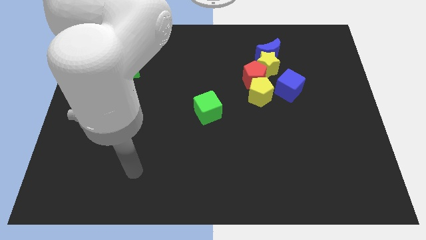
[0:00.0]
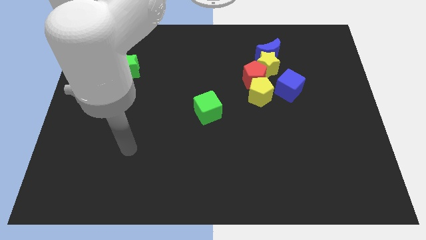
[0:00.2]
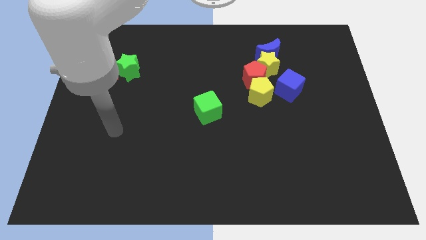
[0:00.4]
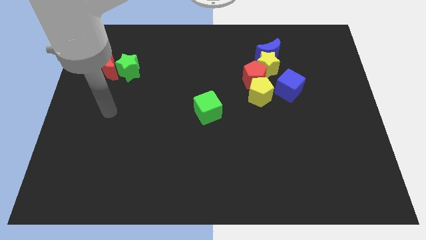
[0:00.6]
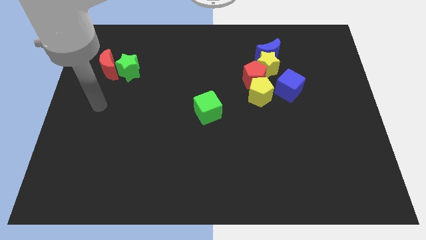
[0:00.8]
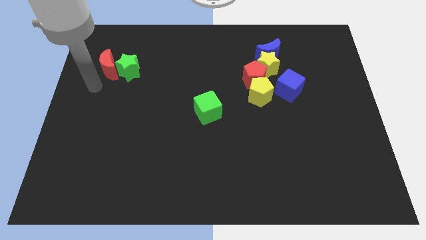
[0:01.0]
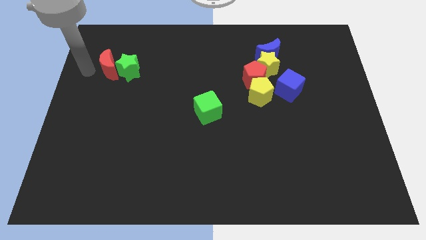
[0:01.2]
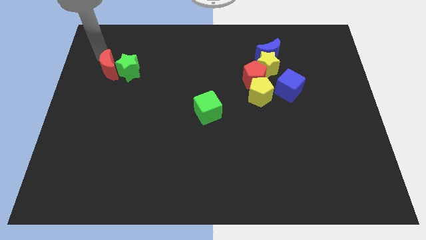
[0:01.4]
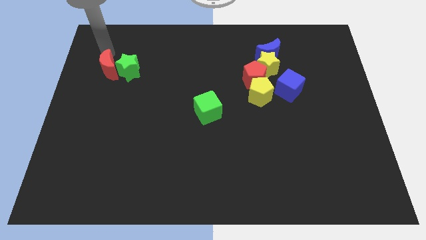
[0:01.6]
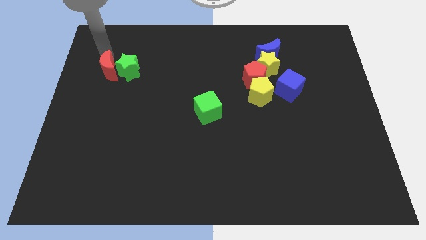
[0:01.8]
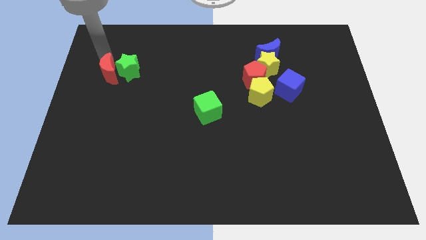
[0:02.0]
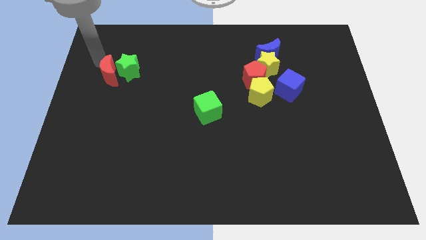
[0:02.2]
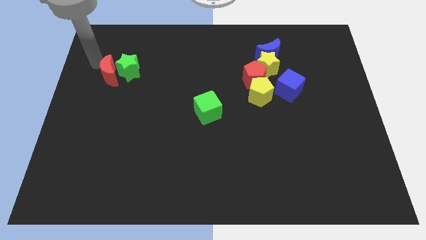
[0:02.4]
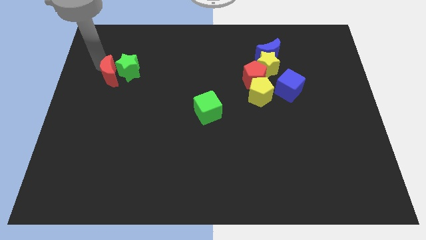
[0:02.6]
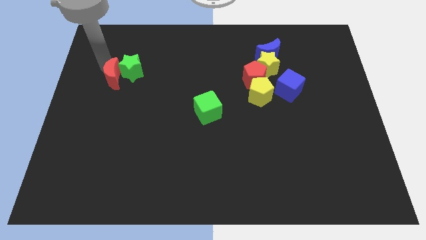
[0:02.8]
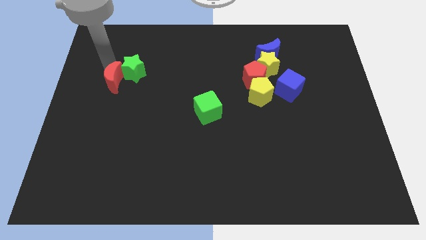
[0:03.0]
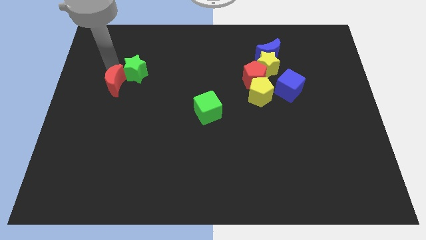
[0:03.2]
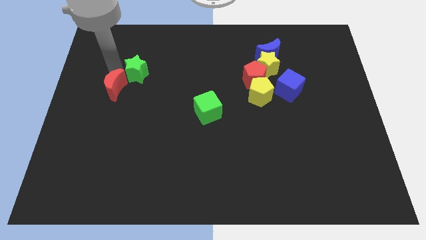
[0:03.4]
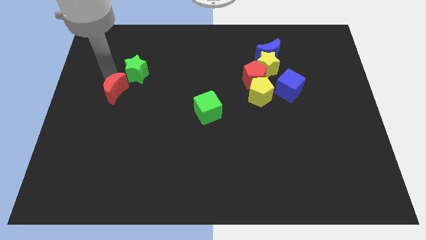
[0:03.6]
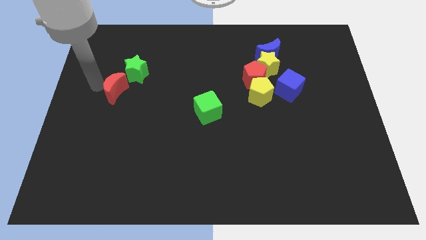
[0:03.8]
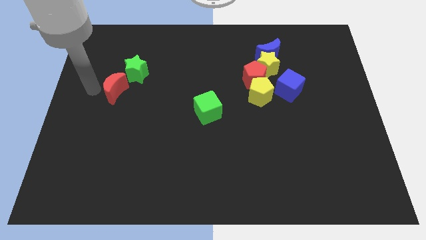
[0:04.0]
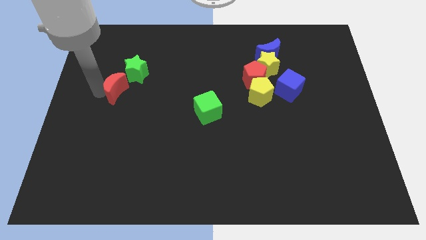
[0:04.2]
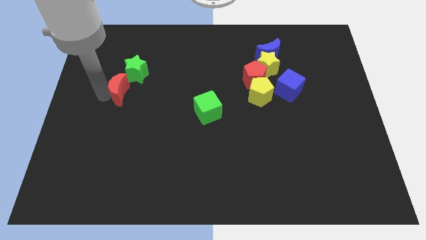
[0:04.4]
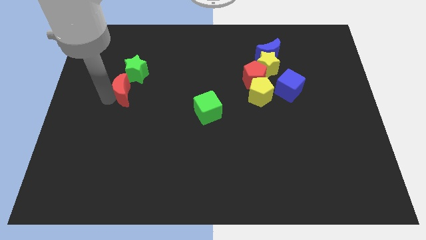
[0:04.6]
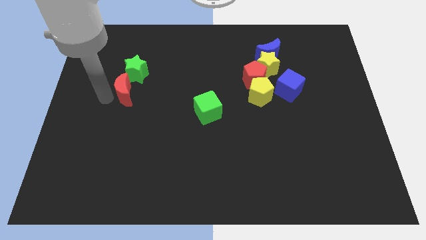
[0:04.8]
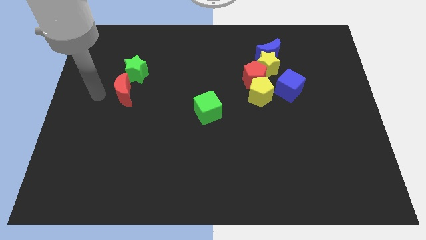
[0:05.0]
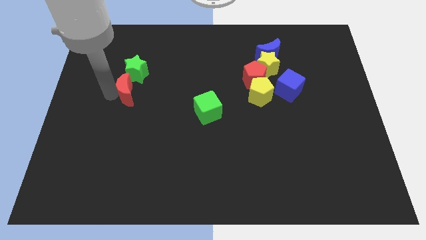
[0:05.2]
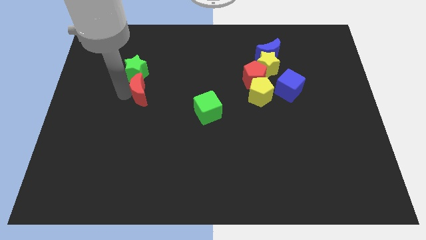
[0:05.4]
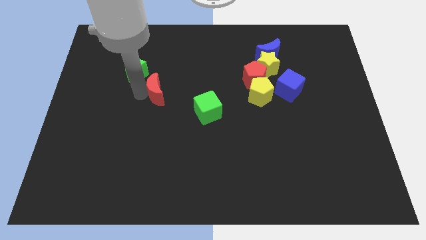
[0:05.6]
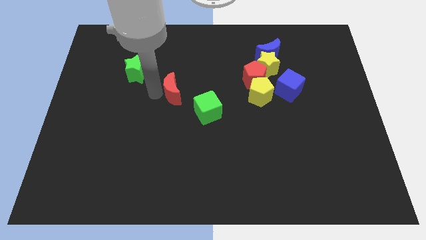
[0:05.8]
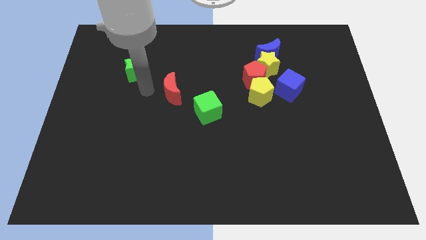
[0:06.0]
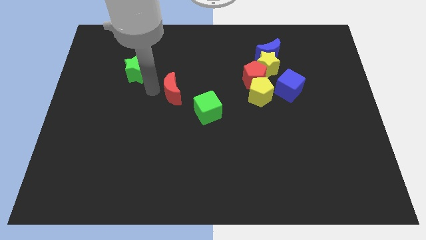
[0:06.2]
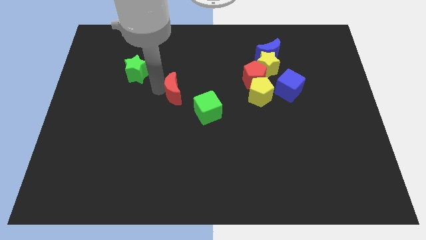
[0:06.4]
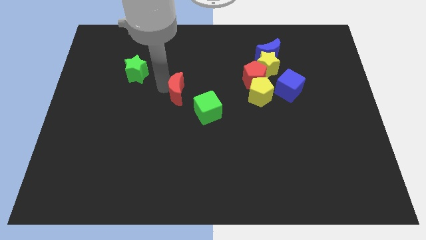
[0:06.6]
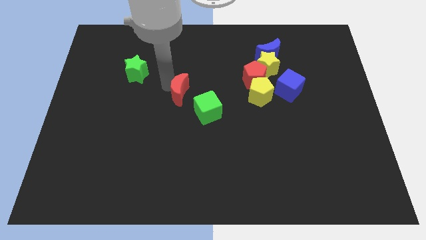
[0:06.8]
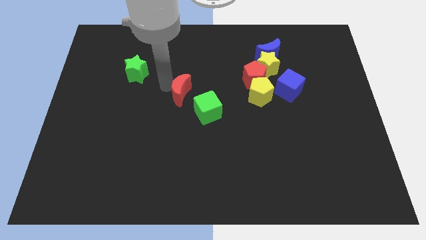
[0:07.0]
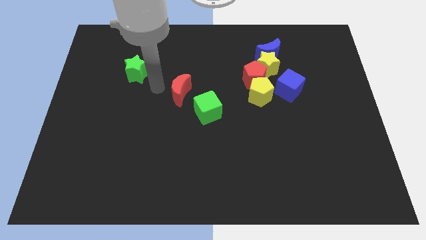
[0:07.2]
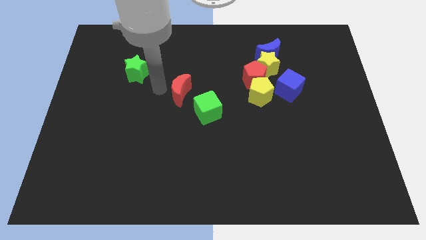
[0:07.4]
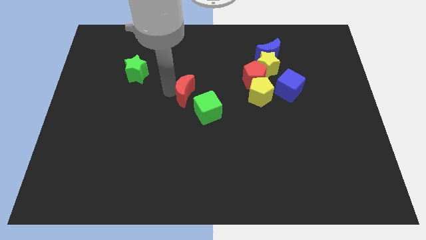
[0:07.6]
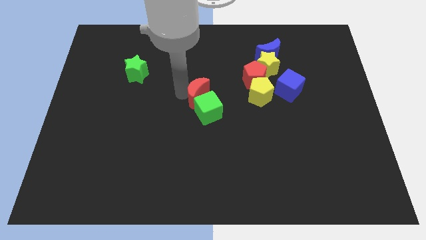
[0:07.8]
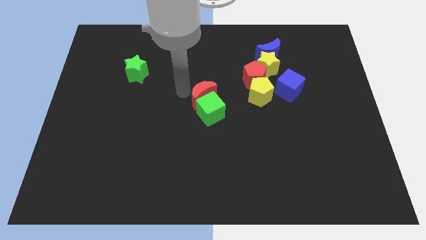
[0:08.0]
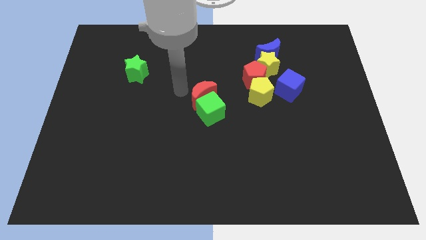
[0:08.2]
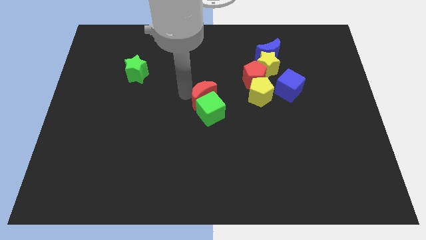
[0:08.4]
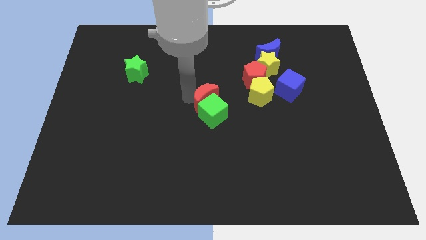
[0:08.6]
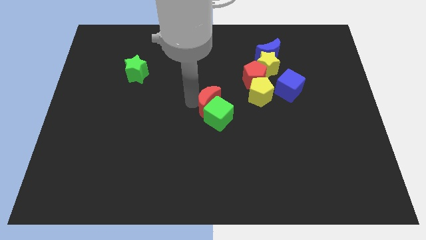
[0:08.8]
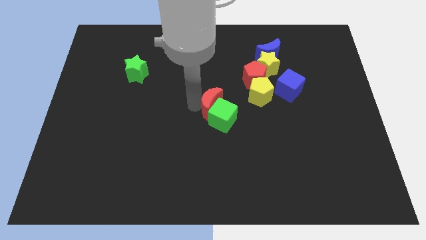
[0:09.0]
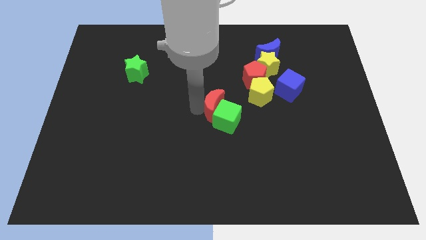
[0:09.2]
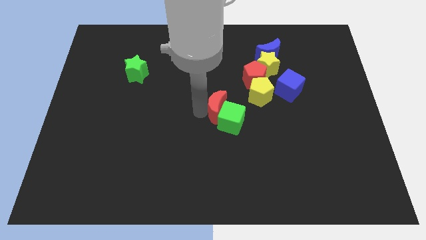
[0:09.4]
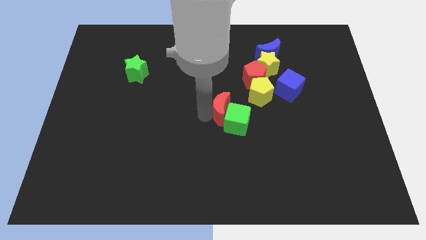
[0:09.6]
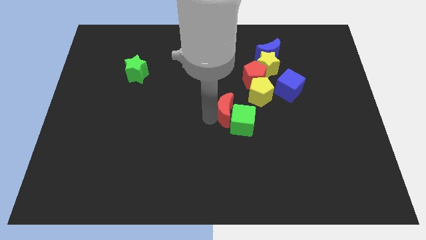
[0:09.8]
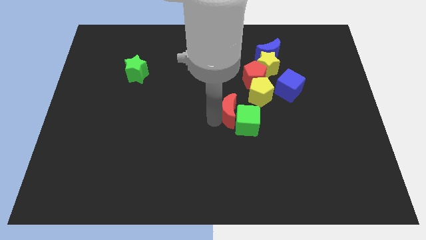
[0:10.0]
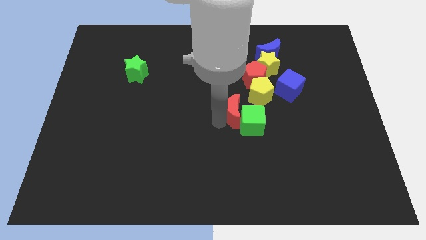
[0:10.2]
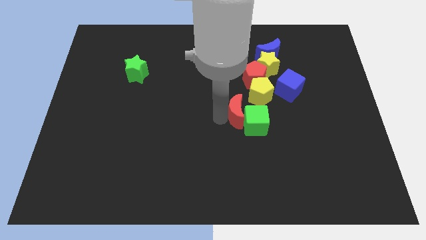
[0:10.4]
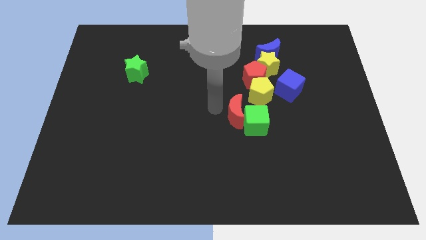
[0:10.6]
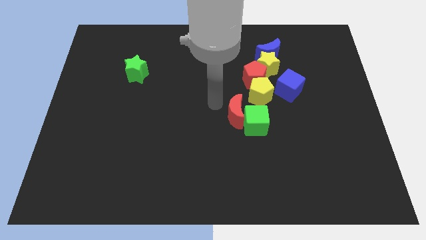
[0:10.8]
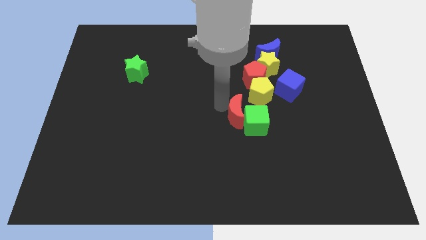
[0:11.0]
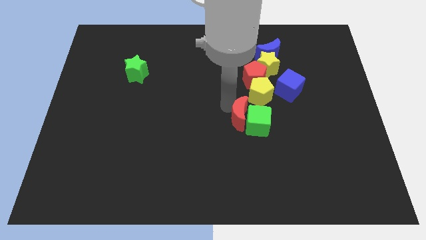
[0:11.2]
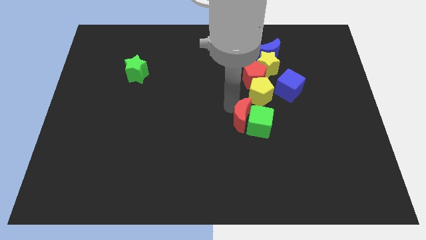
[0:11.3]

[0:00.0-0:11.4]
slide the red moon to the bottom side of the yellow pentagon
